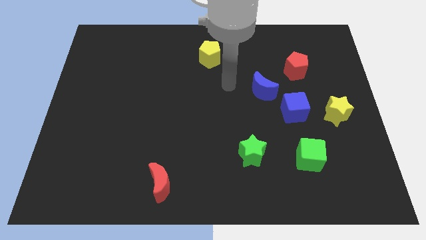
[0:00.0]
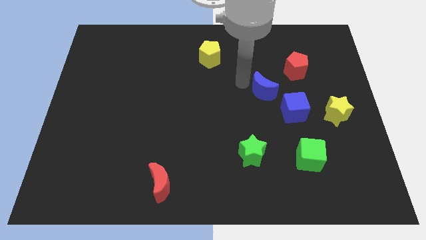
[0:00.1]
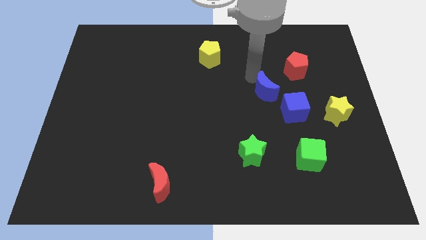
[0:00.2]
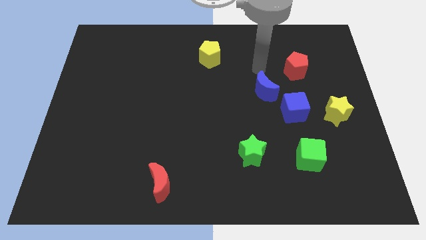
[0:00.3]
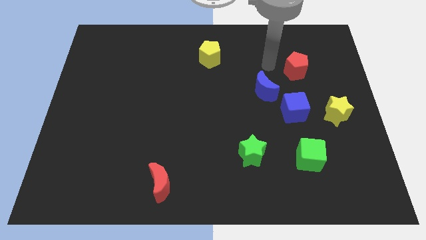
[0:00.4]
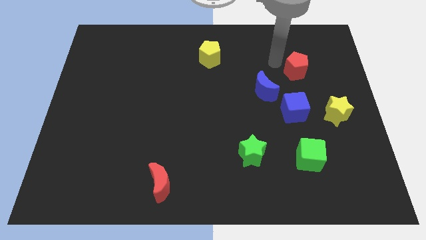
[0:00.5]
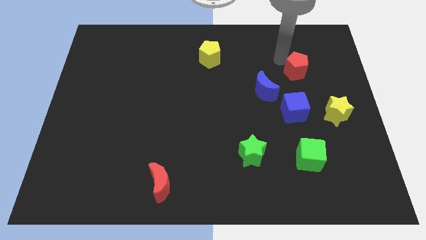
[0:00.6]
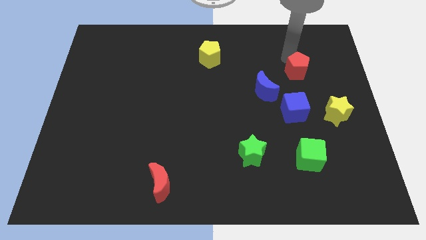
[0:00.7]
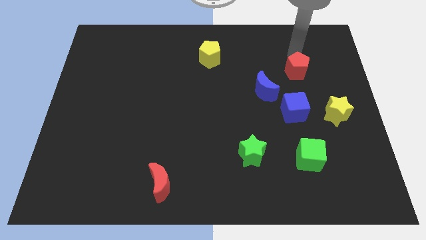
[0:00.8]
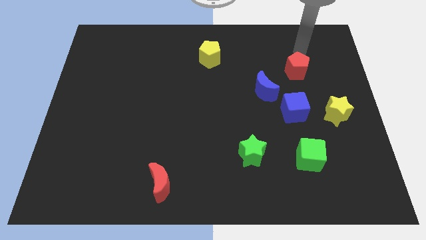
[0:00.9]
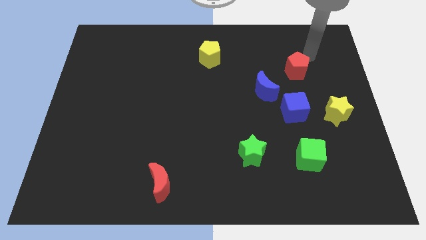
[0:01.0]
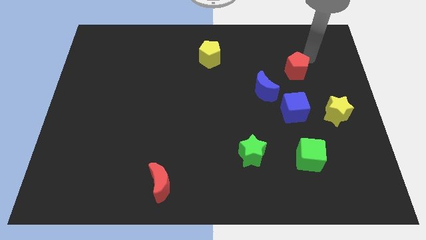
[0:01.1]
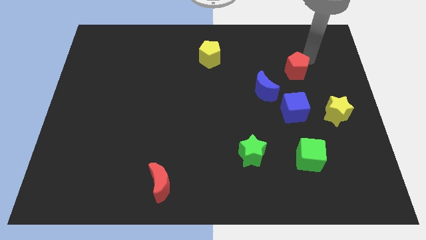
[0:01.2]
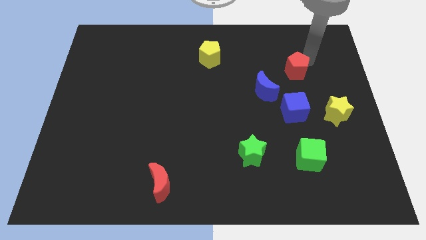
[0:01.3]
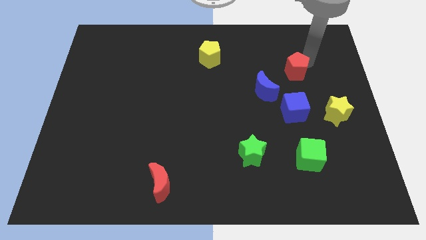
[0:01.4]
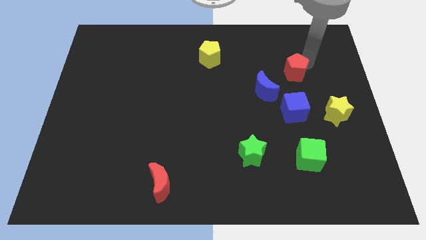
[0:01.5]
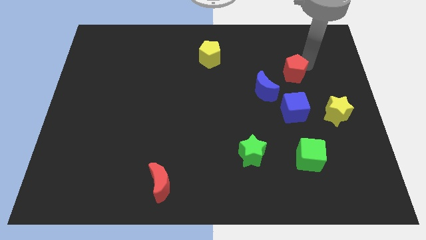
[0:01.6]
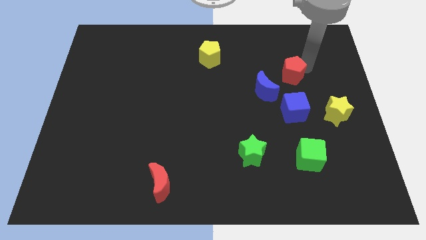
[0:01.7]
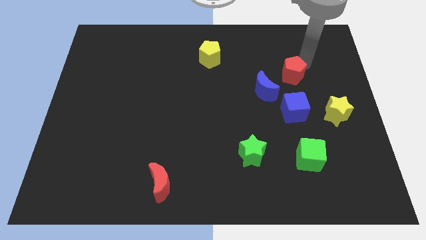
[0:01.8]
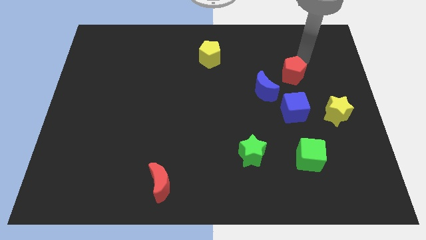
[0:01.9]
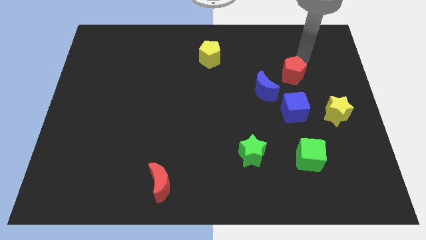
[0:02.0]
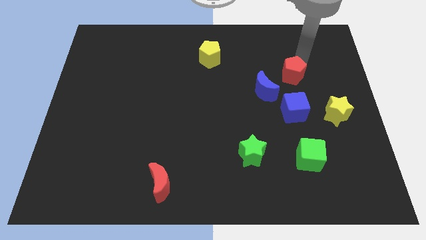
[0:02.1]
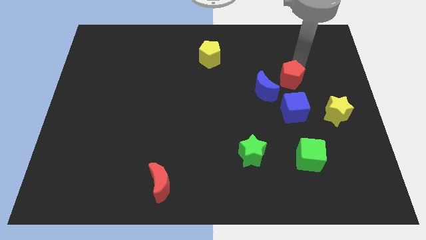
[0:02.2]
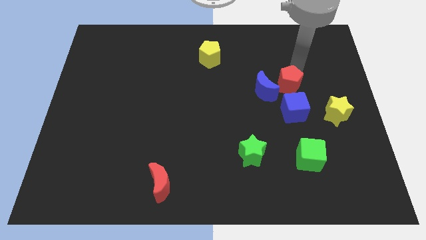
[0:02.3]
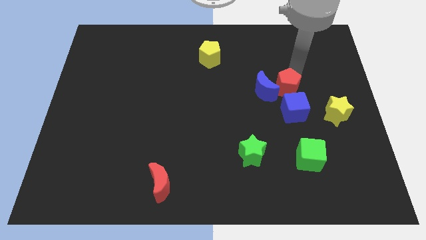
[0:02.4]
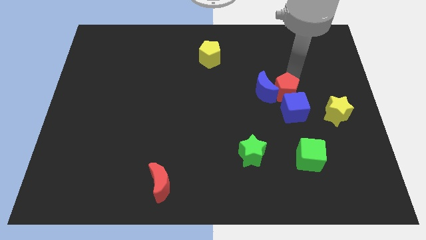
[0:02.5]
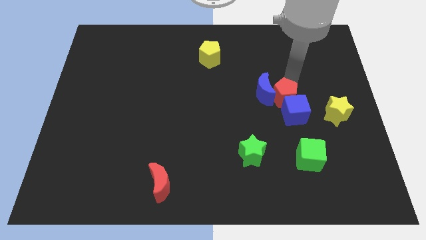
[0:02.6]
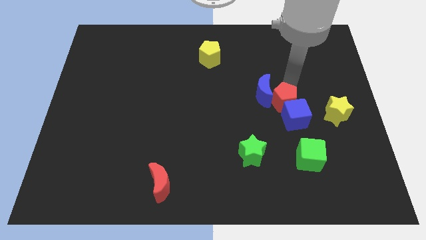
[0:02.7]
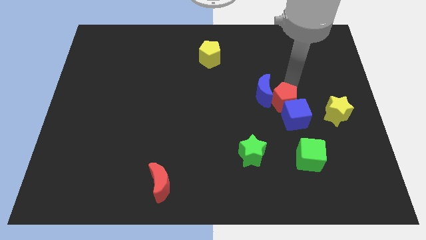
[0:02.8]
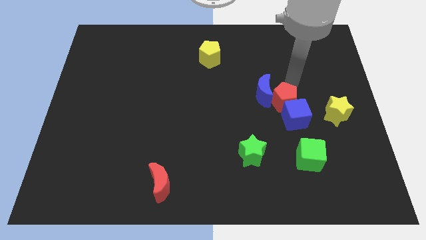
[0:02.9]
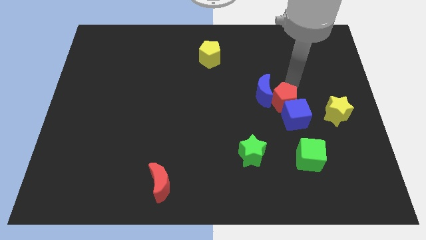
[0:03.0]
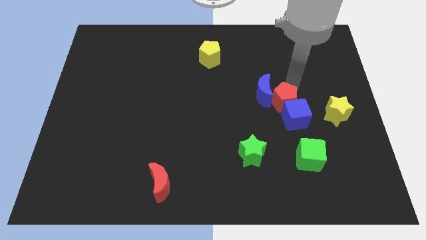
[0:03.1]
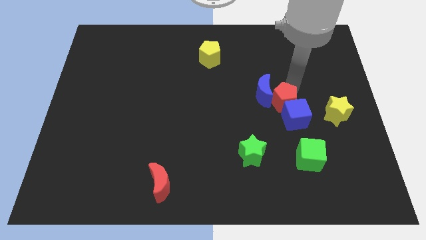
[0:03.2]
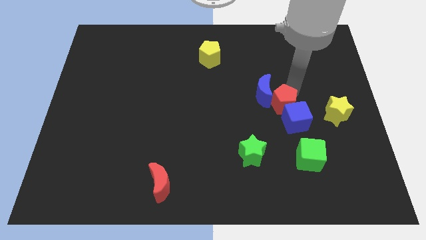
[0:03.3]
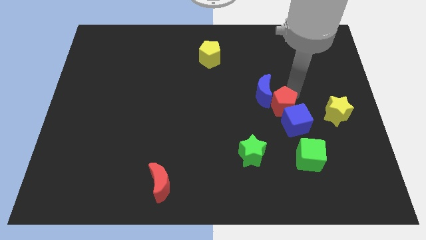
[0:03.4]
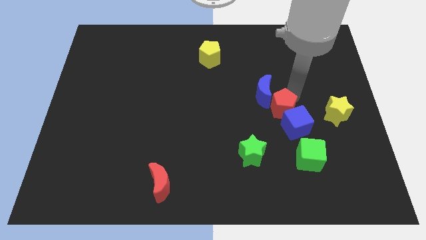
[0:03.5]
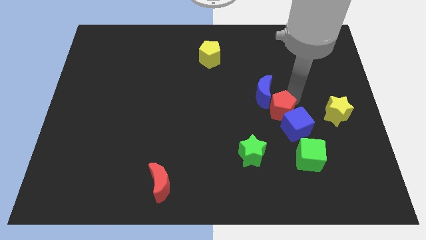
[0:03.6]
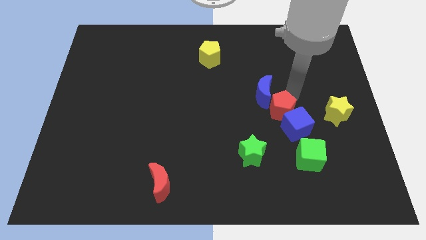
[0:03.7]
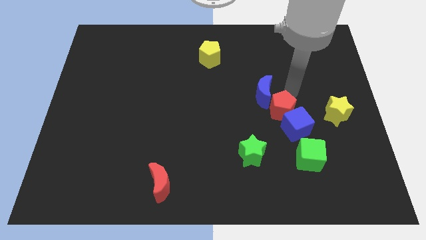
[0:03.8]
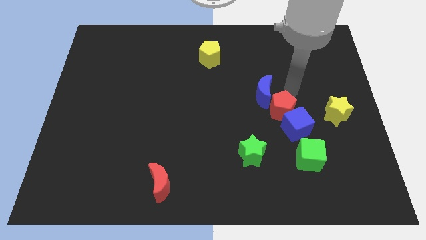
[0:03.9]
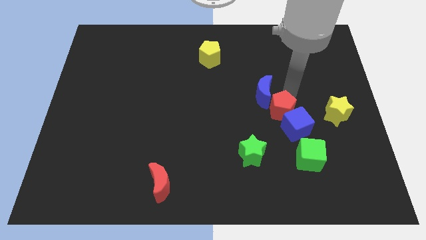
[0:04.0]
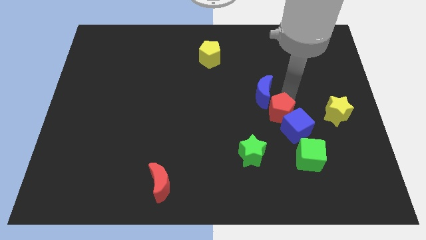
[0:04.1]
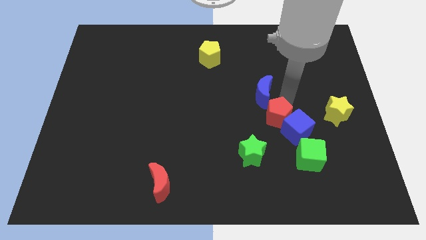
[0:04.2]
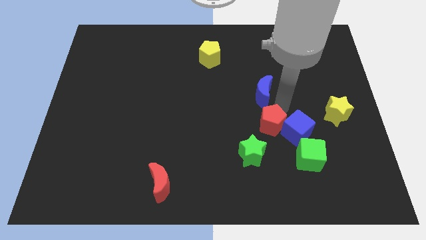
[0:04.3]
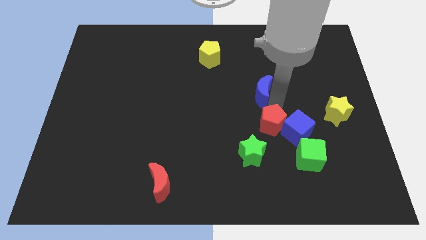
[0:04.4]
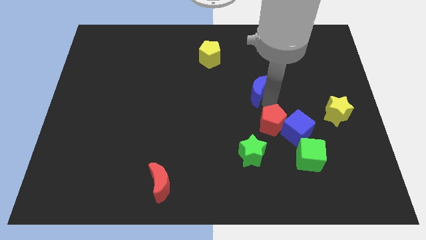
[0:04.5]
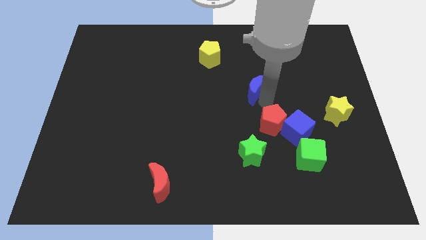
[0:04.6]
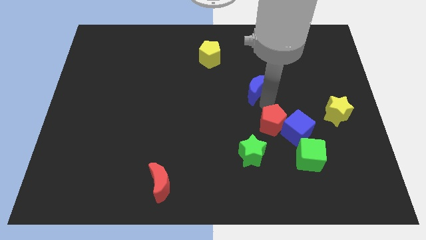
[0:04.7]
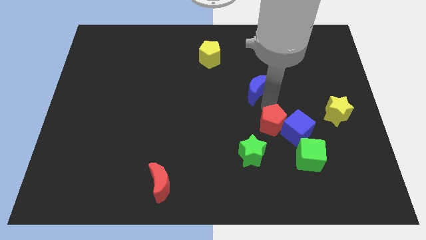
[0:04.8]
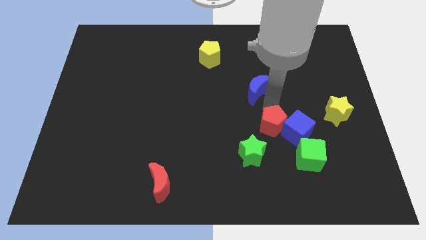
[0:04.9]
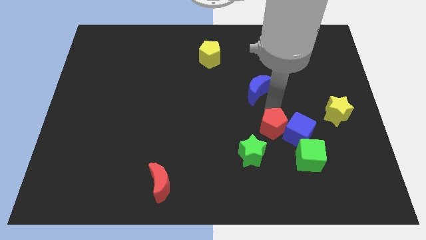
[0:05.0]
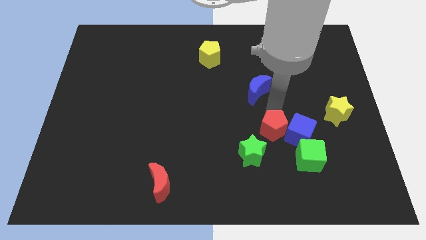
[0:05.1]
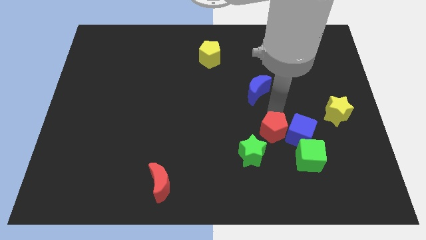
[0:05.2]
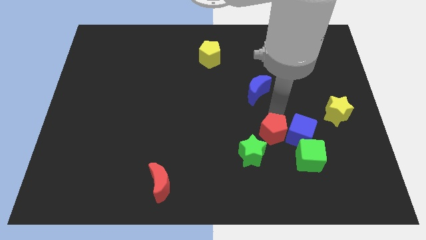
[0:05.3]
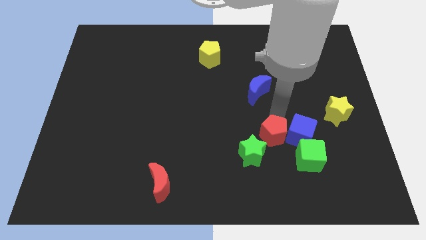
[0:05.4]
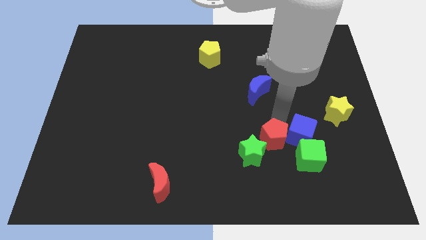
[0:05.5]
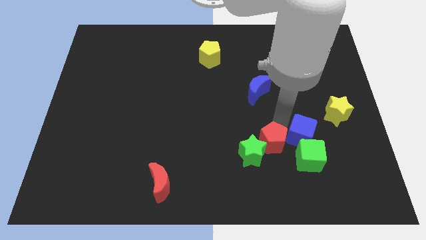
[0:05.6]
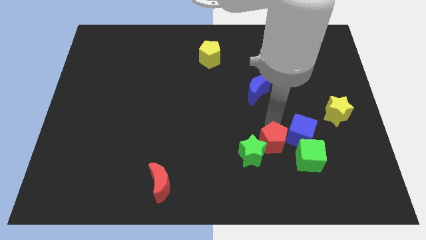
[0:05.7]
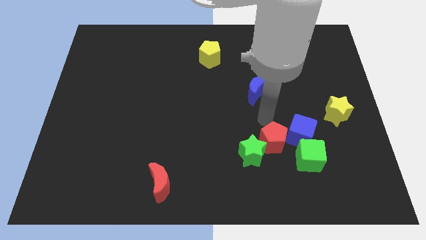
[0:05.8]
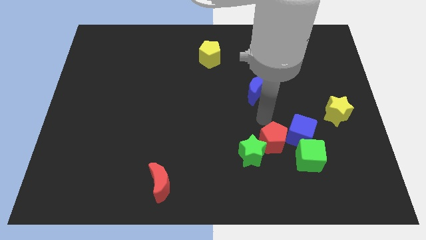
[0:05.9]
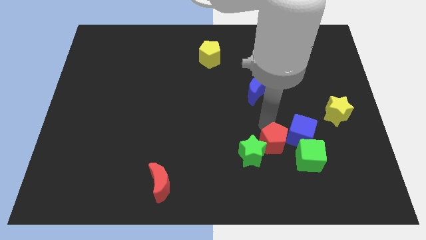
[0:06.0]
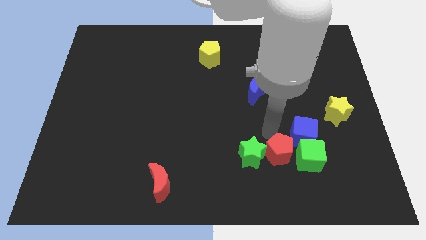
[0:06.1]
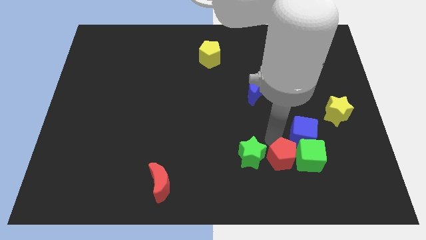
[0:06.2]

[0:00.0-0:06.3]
move the red pentagon to the bottom left side of the green cube

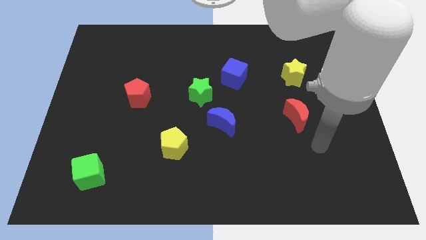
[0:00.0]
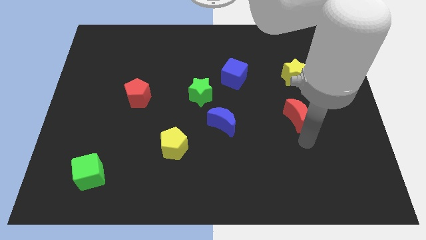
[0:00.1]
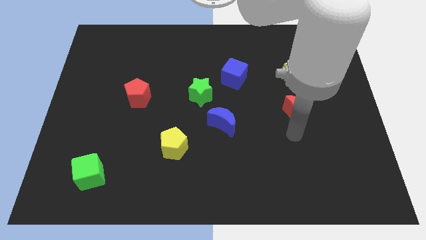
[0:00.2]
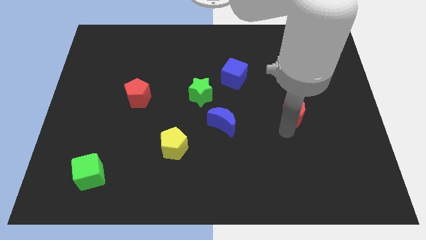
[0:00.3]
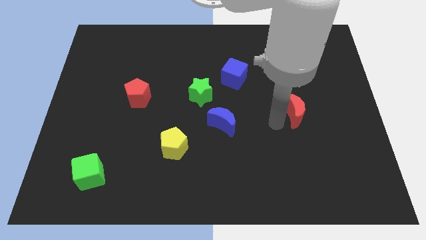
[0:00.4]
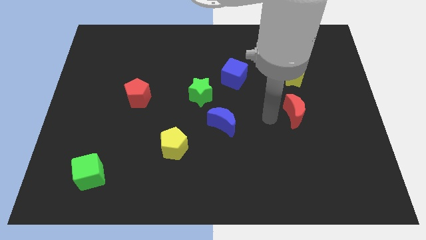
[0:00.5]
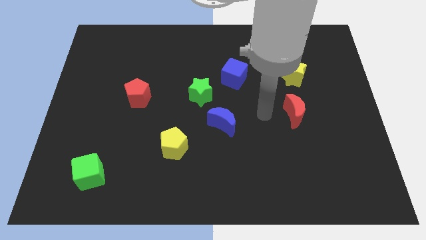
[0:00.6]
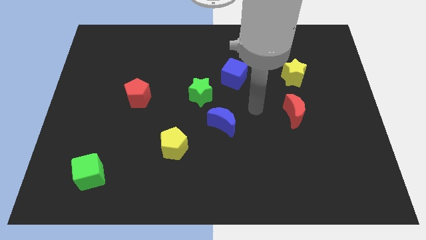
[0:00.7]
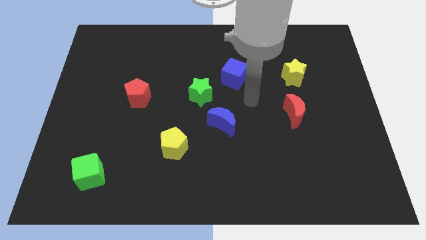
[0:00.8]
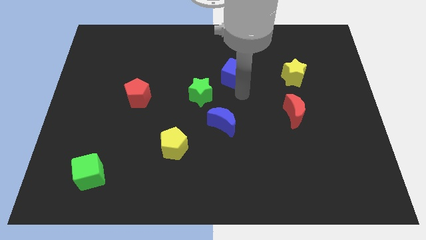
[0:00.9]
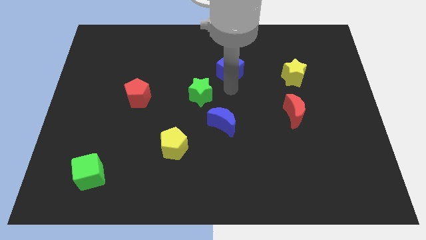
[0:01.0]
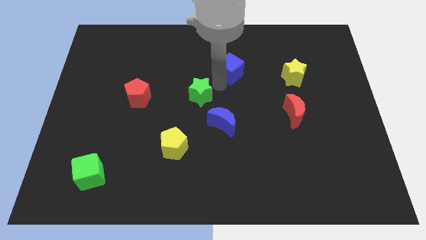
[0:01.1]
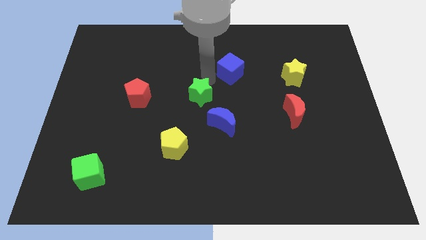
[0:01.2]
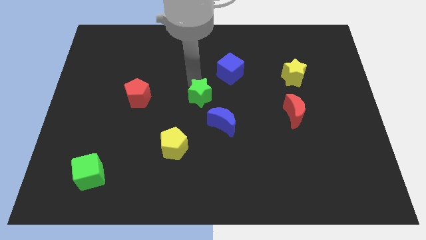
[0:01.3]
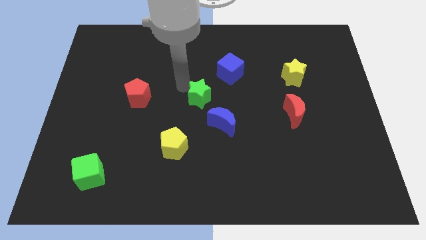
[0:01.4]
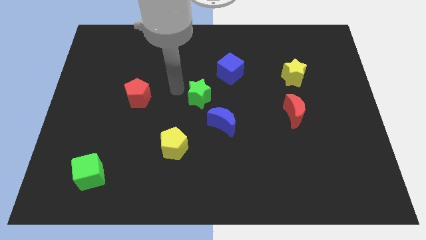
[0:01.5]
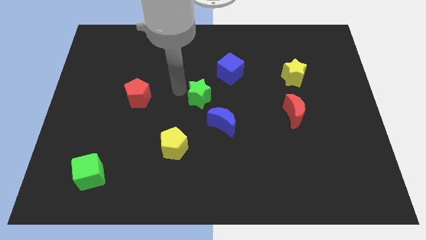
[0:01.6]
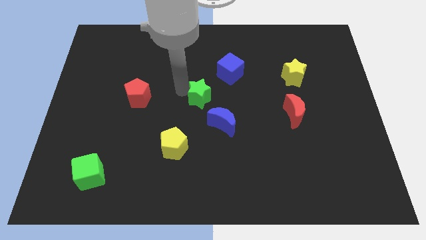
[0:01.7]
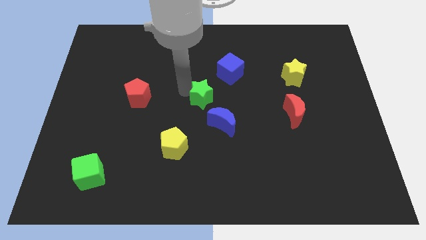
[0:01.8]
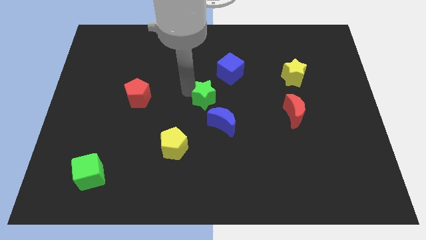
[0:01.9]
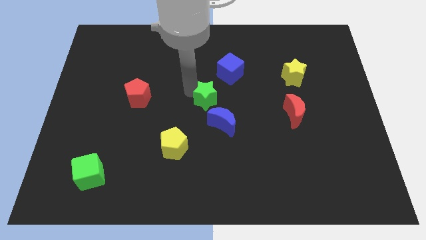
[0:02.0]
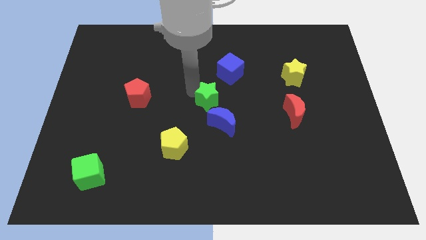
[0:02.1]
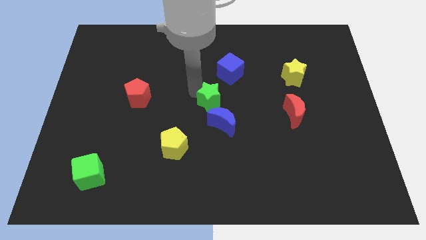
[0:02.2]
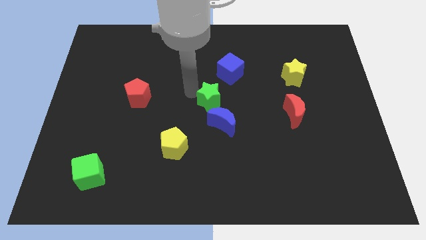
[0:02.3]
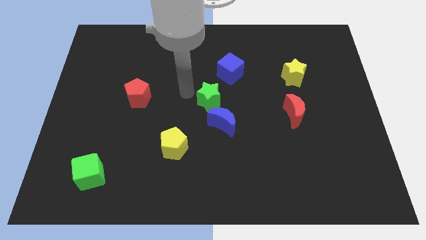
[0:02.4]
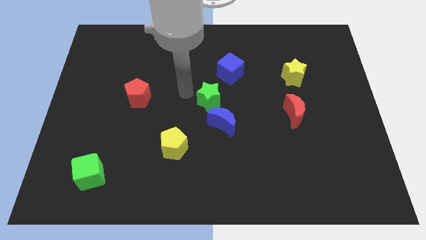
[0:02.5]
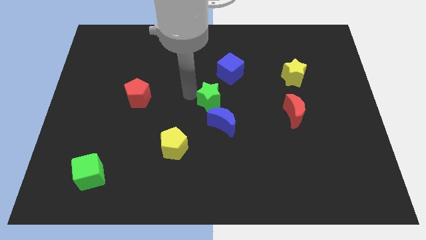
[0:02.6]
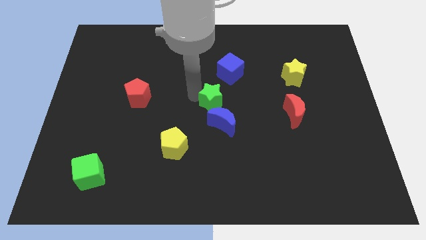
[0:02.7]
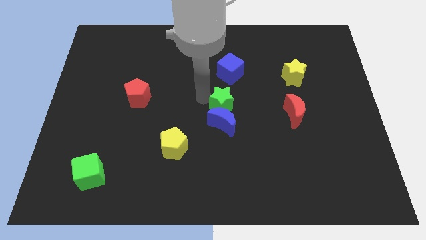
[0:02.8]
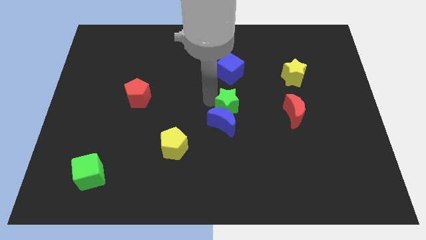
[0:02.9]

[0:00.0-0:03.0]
move the green star left of the red moon
